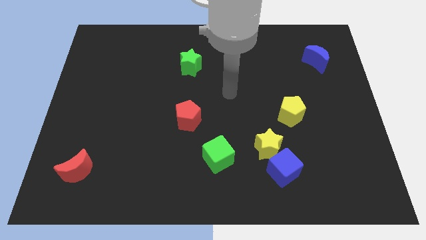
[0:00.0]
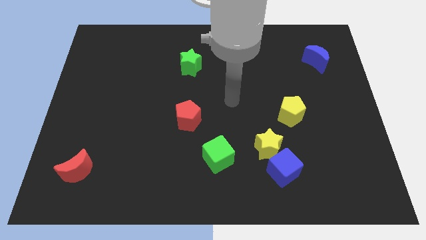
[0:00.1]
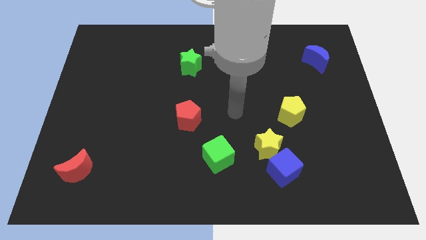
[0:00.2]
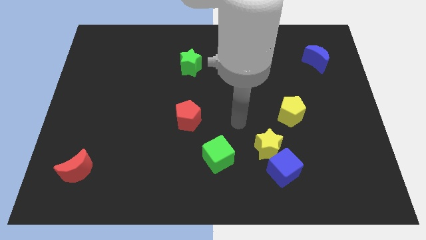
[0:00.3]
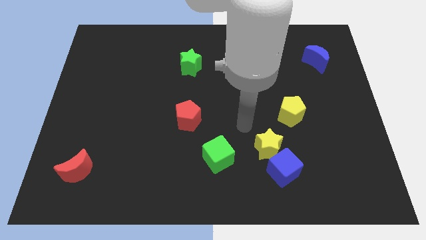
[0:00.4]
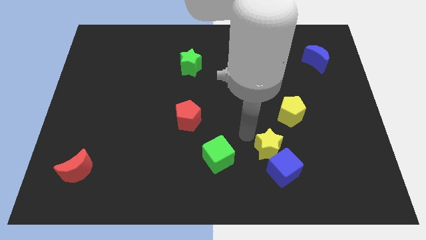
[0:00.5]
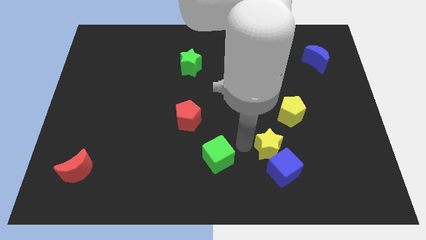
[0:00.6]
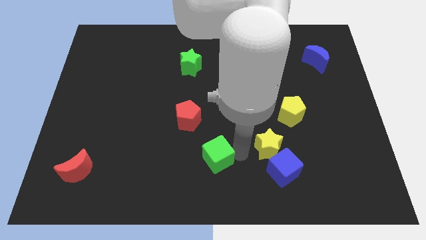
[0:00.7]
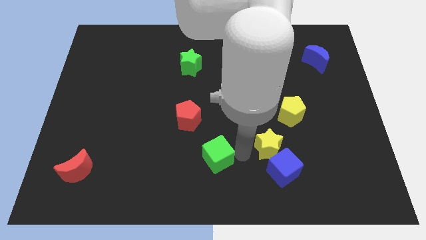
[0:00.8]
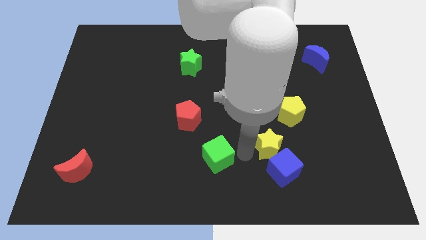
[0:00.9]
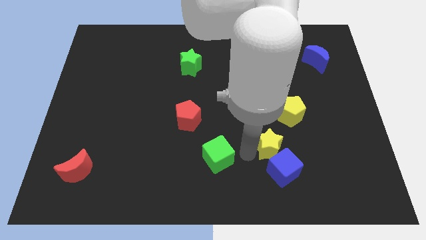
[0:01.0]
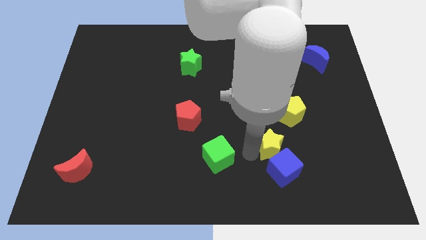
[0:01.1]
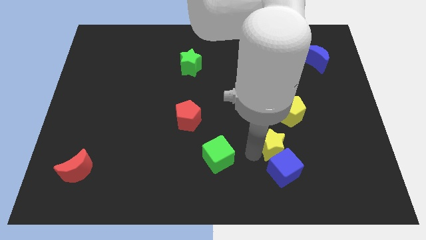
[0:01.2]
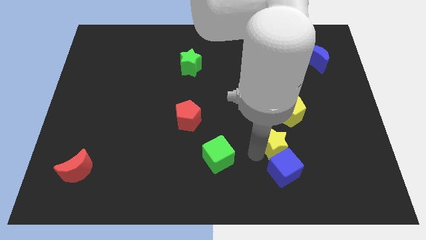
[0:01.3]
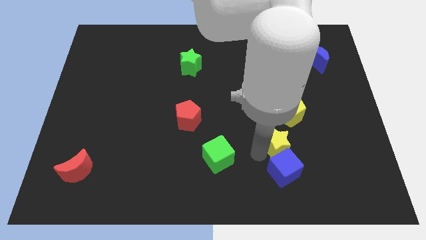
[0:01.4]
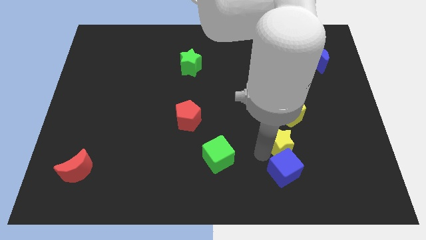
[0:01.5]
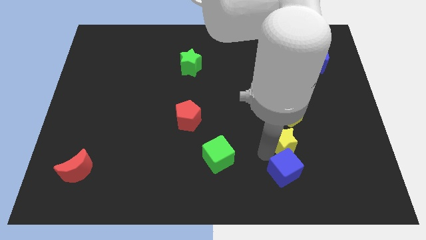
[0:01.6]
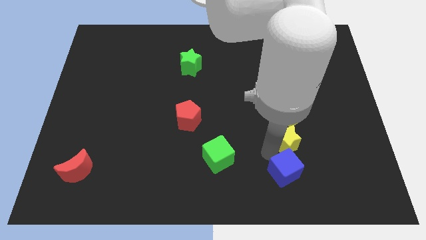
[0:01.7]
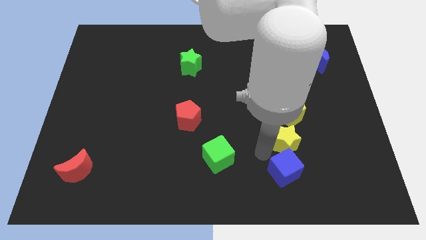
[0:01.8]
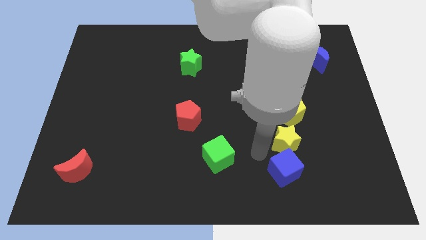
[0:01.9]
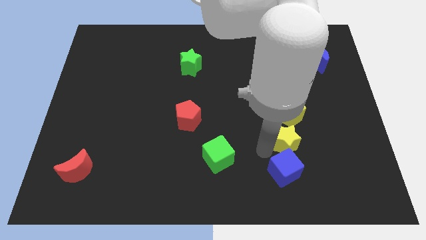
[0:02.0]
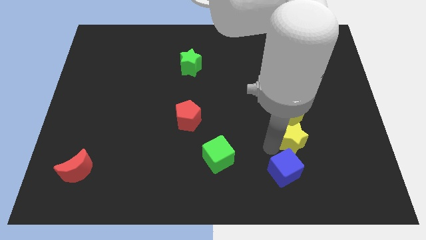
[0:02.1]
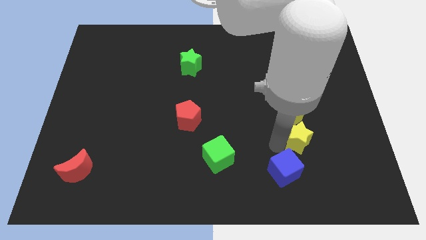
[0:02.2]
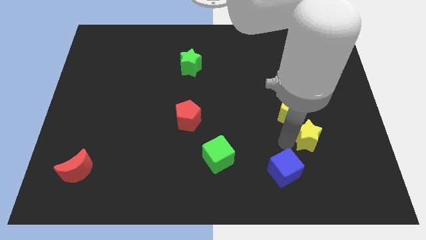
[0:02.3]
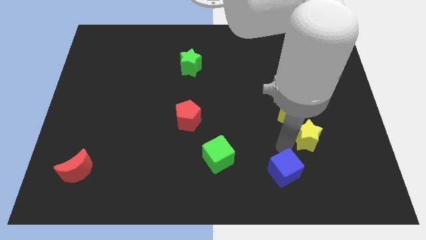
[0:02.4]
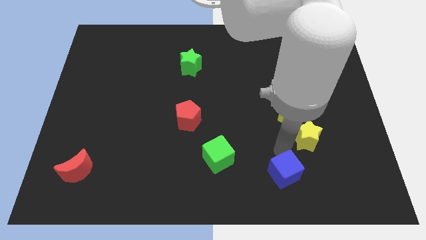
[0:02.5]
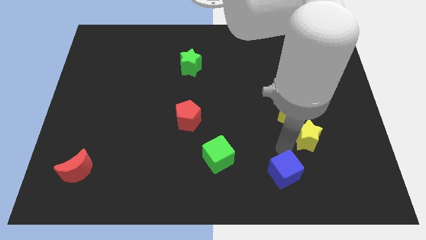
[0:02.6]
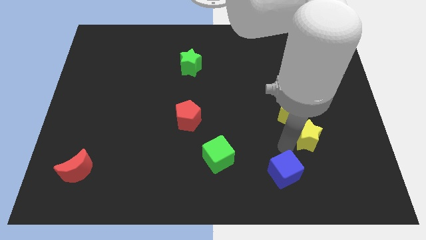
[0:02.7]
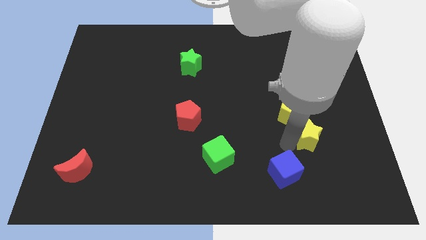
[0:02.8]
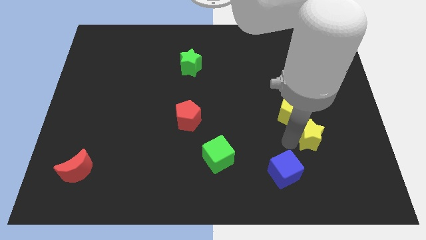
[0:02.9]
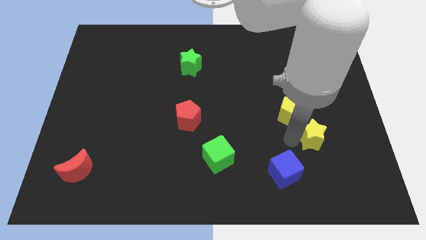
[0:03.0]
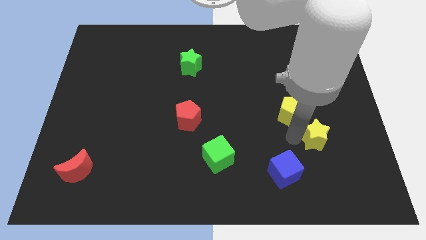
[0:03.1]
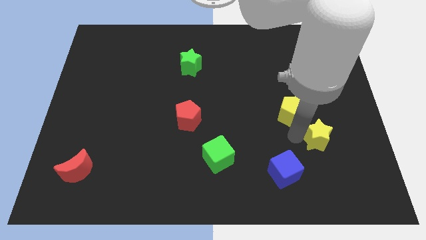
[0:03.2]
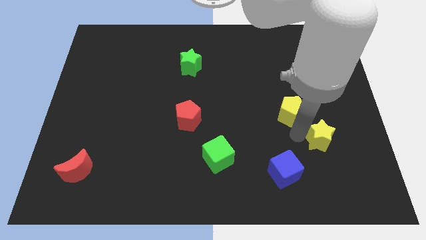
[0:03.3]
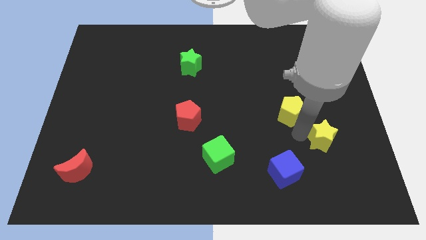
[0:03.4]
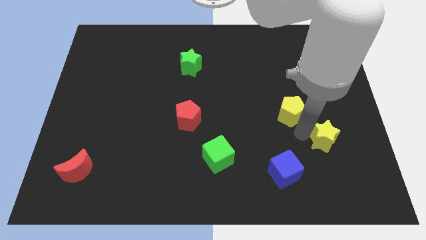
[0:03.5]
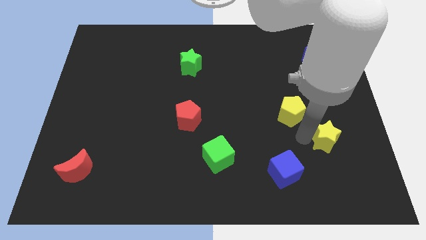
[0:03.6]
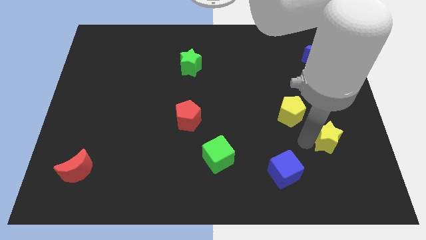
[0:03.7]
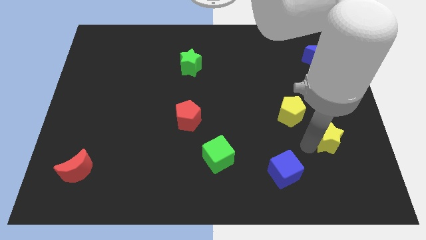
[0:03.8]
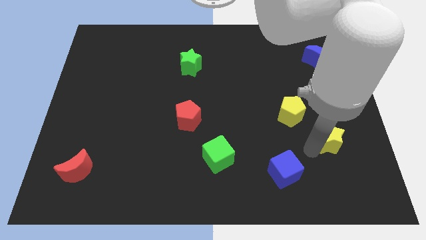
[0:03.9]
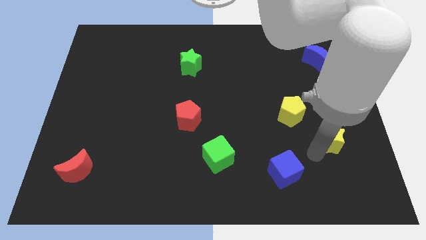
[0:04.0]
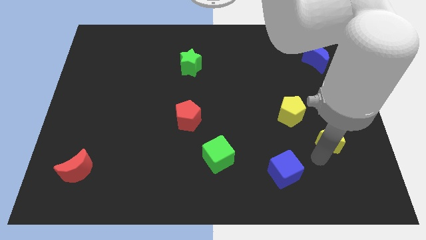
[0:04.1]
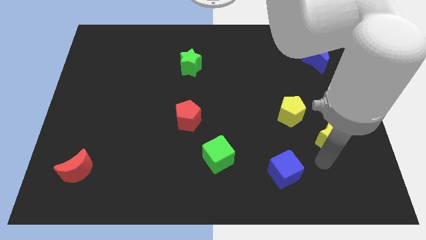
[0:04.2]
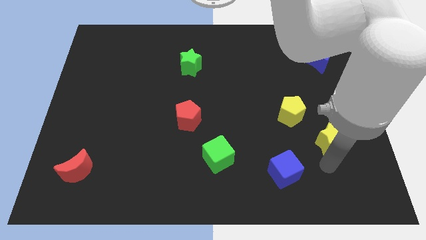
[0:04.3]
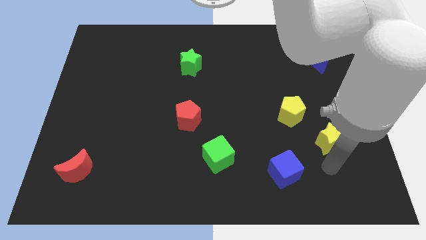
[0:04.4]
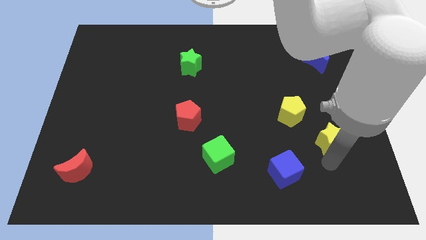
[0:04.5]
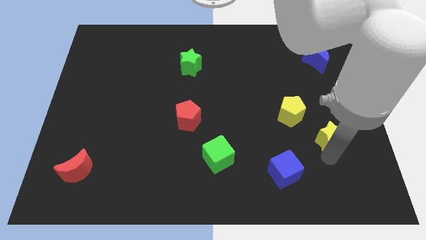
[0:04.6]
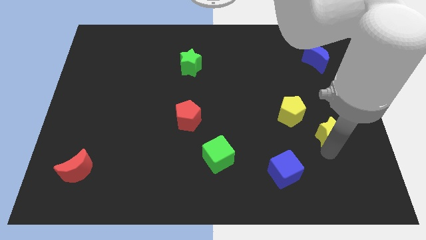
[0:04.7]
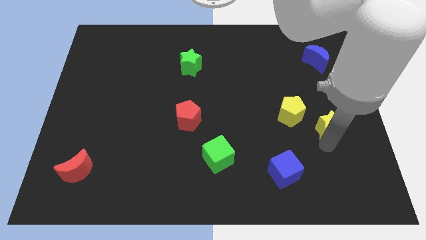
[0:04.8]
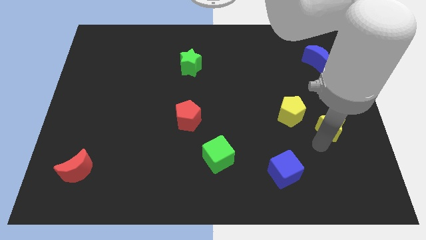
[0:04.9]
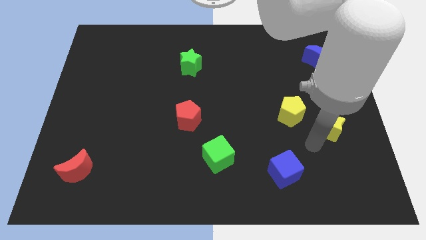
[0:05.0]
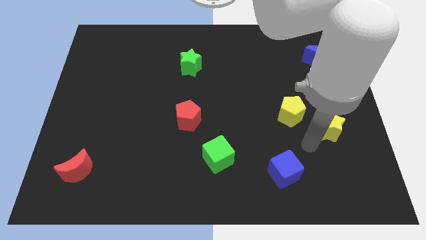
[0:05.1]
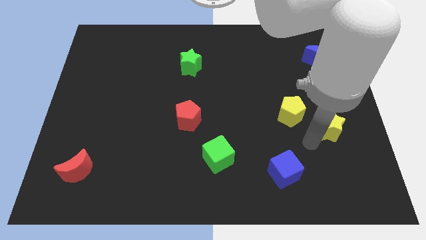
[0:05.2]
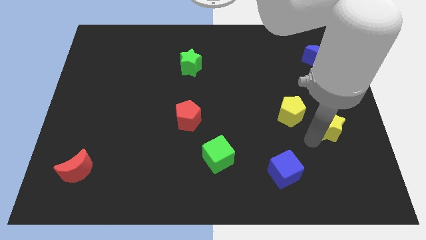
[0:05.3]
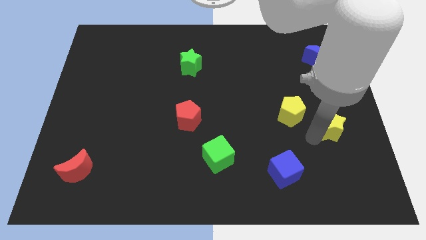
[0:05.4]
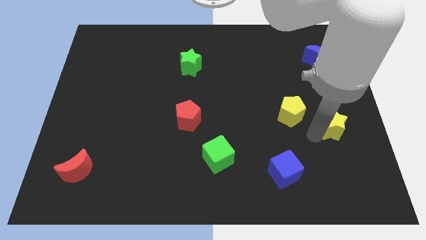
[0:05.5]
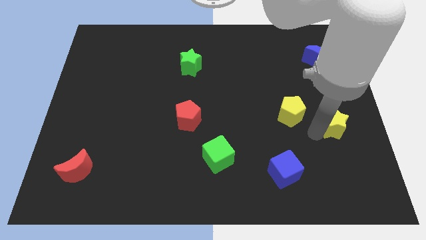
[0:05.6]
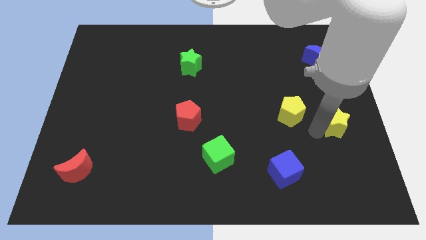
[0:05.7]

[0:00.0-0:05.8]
put the yellow star to the right side

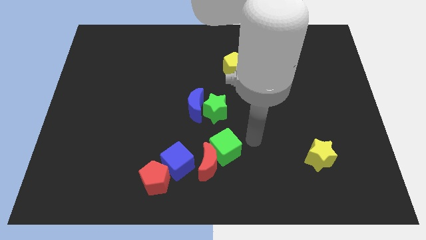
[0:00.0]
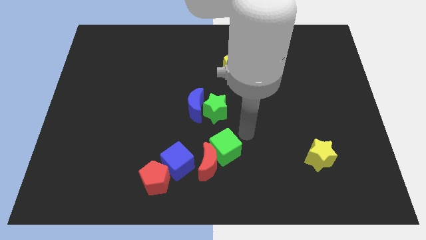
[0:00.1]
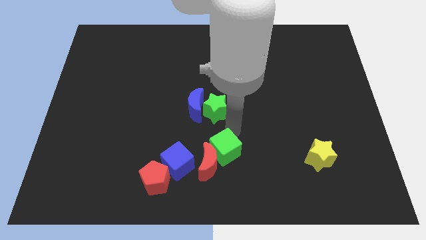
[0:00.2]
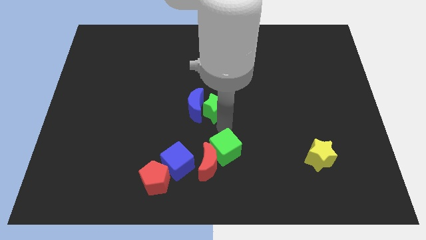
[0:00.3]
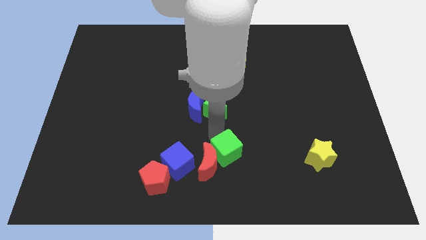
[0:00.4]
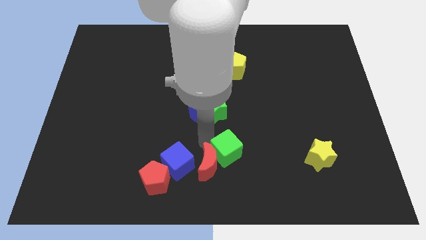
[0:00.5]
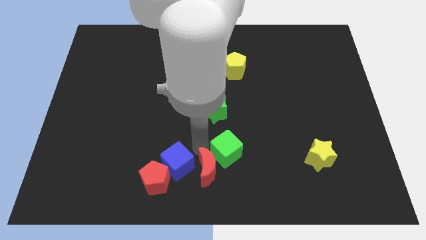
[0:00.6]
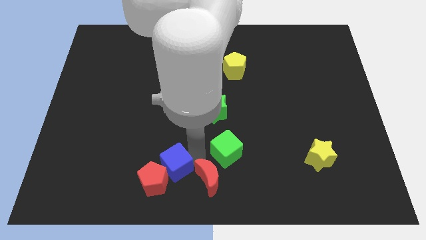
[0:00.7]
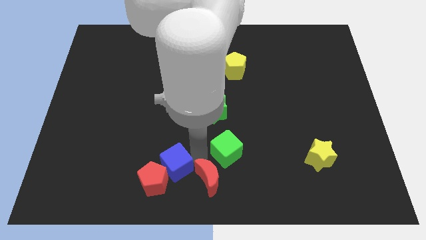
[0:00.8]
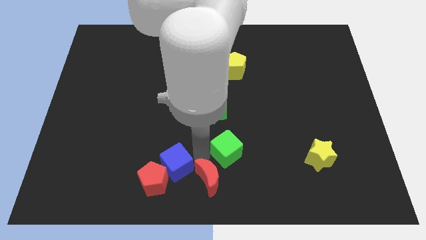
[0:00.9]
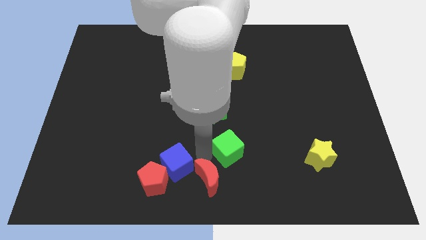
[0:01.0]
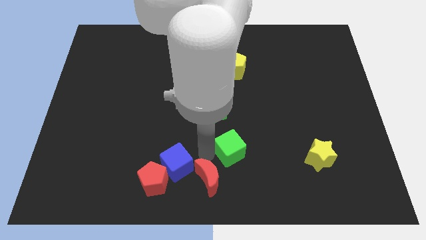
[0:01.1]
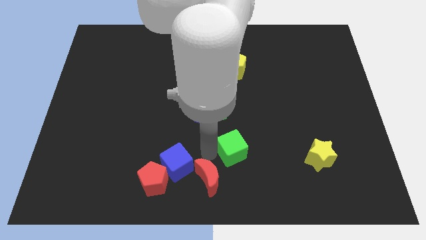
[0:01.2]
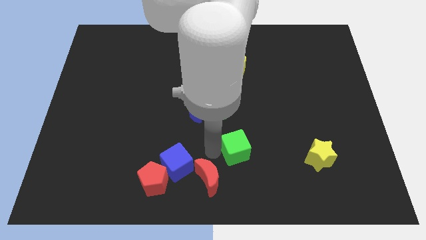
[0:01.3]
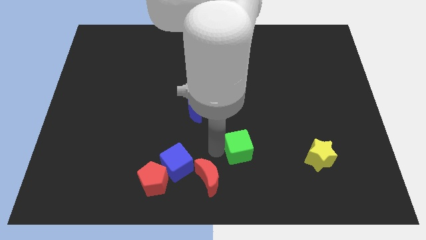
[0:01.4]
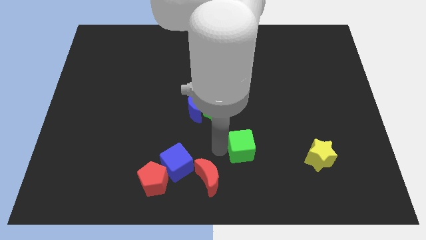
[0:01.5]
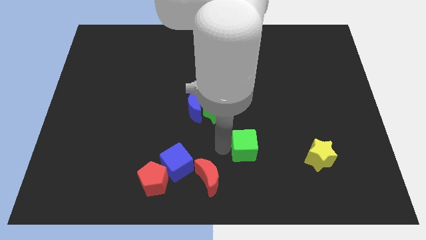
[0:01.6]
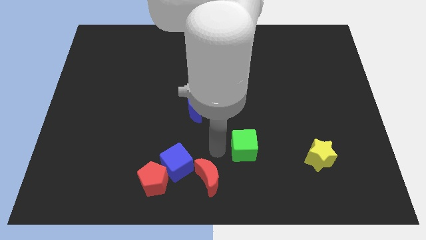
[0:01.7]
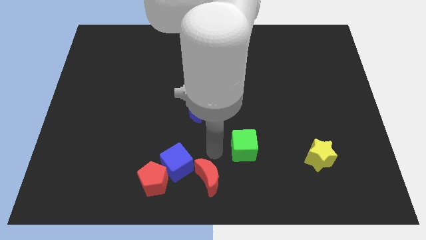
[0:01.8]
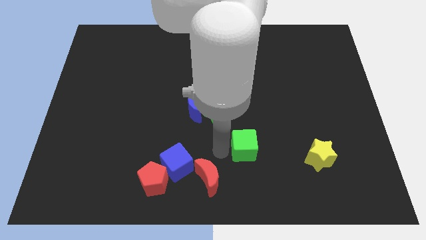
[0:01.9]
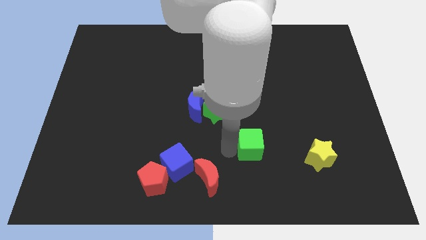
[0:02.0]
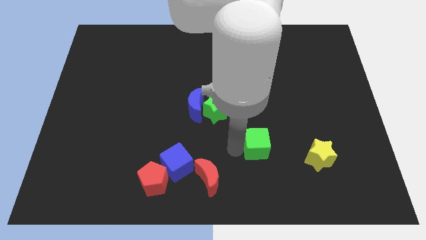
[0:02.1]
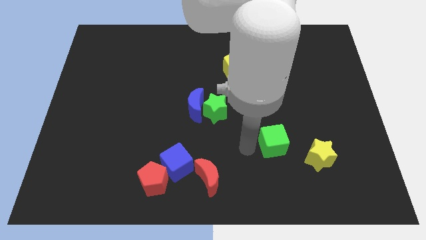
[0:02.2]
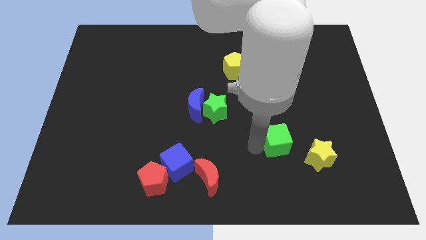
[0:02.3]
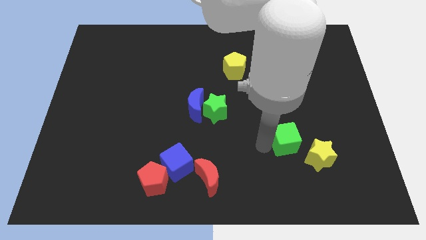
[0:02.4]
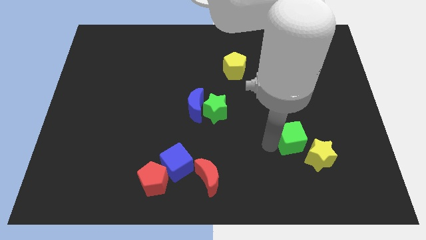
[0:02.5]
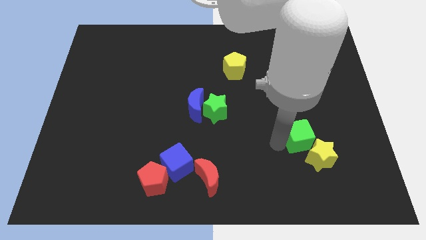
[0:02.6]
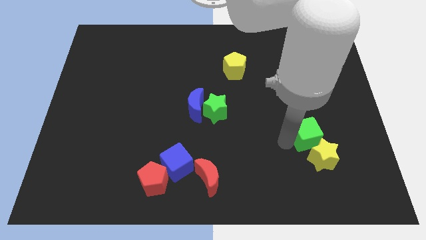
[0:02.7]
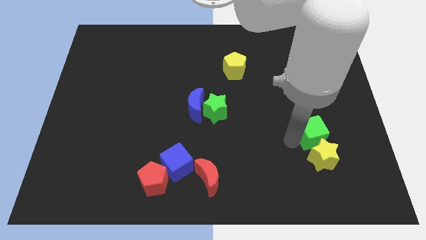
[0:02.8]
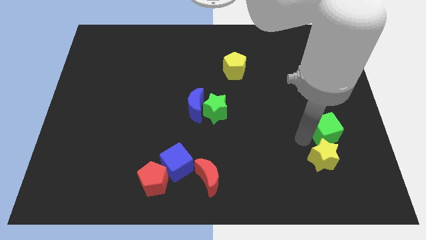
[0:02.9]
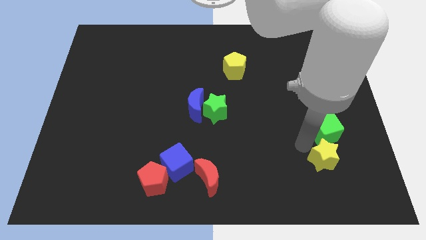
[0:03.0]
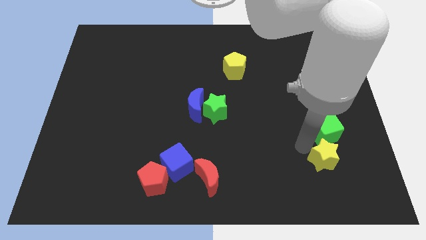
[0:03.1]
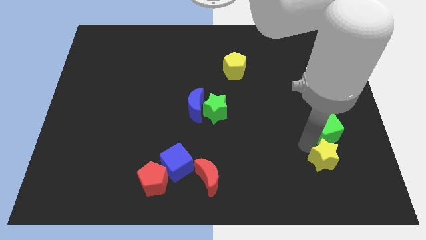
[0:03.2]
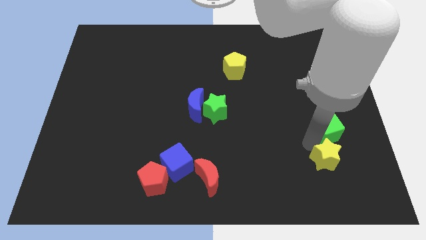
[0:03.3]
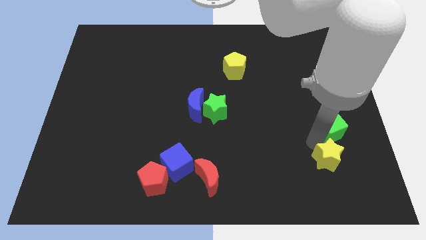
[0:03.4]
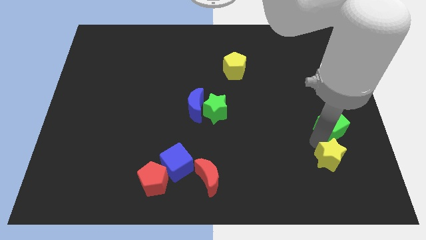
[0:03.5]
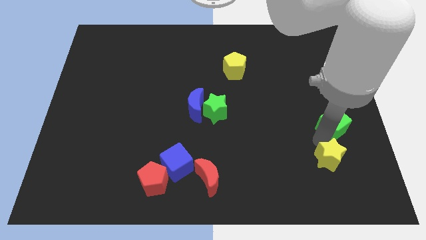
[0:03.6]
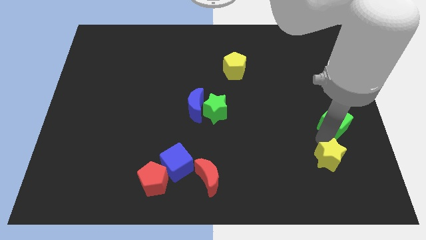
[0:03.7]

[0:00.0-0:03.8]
slide the green cube to the right side
